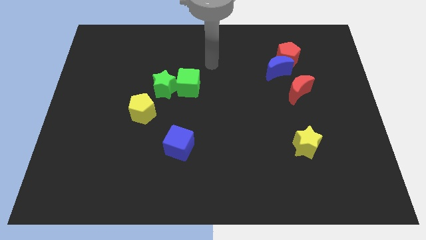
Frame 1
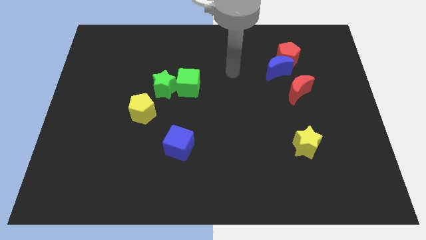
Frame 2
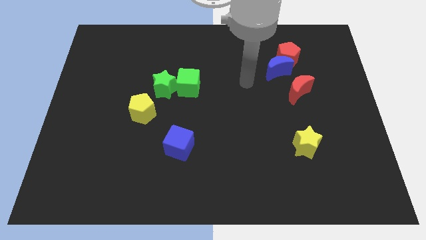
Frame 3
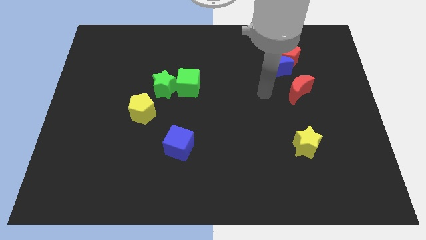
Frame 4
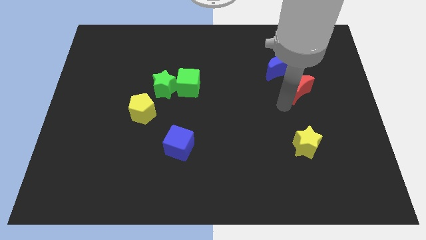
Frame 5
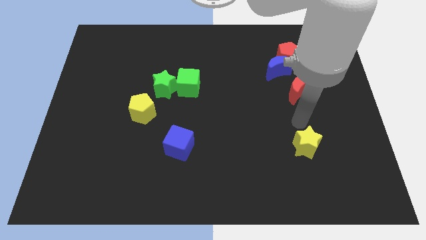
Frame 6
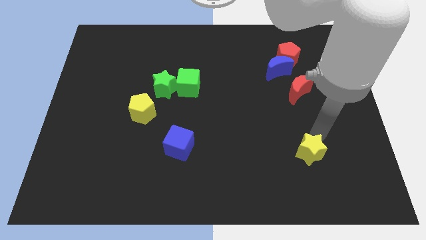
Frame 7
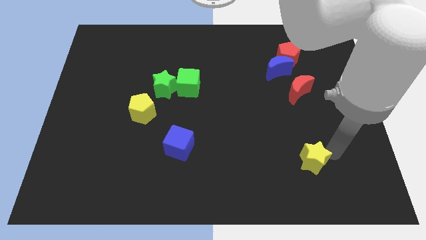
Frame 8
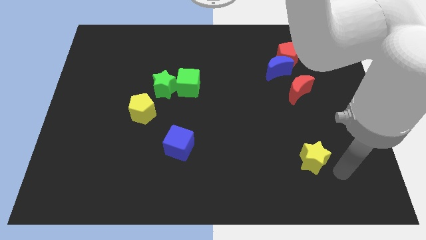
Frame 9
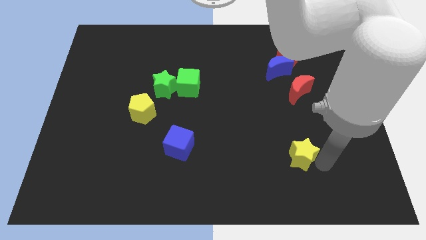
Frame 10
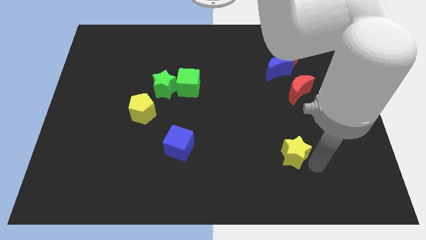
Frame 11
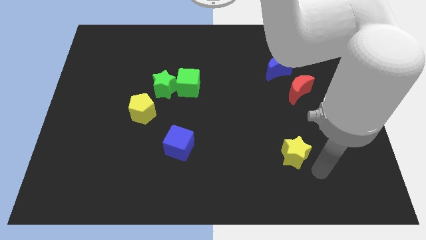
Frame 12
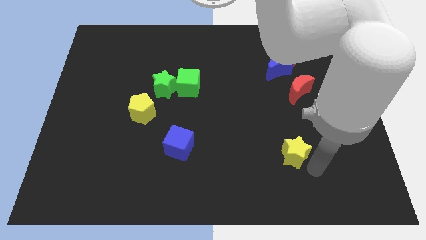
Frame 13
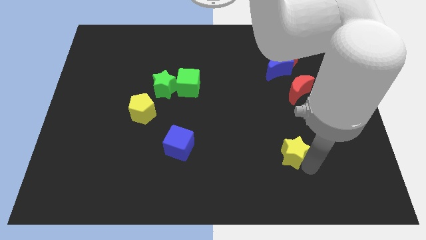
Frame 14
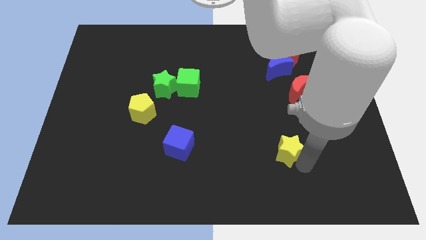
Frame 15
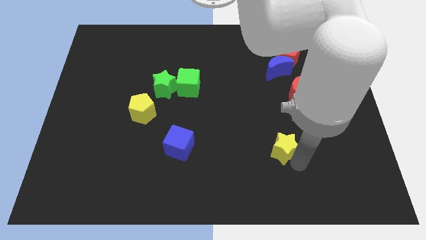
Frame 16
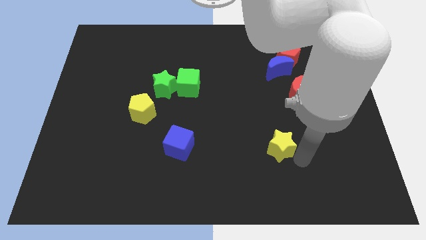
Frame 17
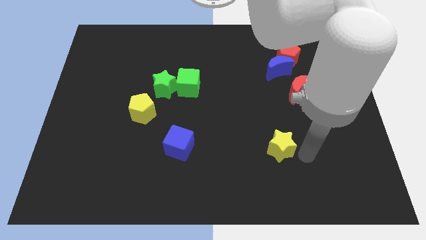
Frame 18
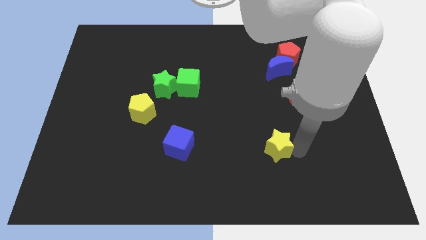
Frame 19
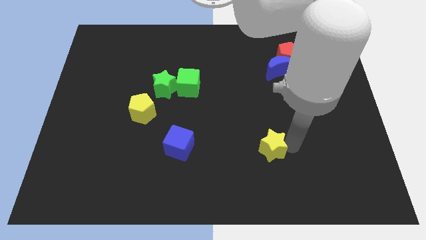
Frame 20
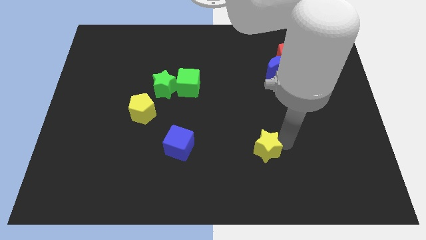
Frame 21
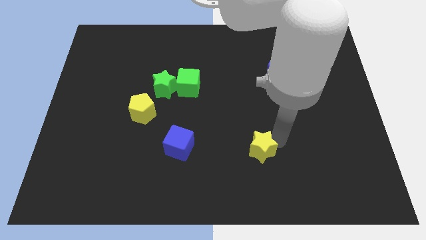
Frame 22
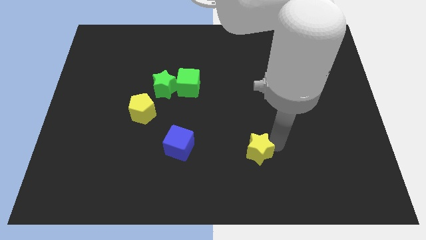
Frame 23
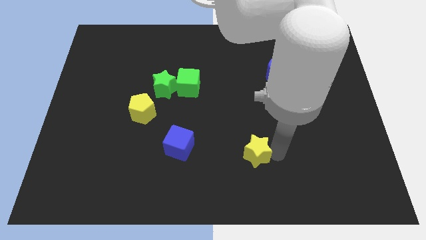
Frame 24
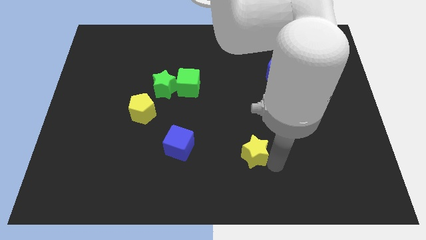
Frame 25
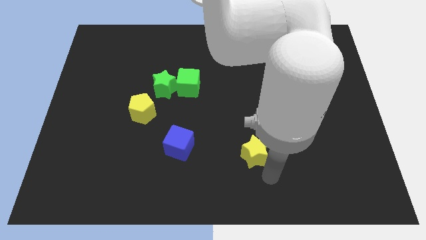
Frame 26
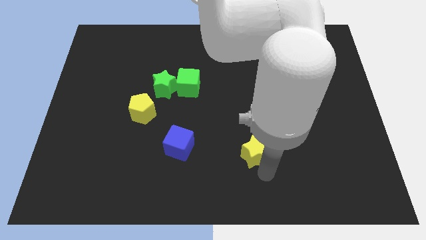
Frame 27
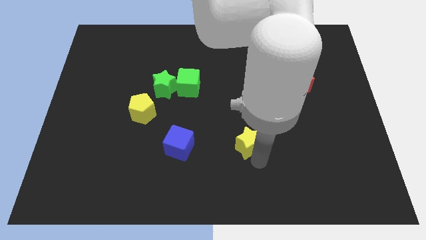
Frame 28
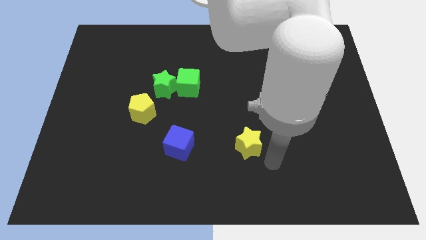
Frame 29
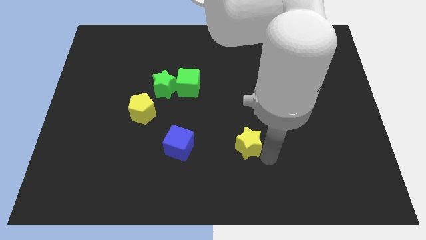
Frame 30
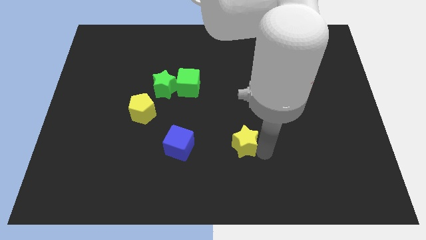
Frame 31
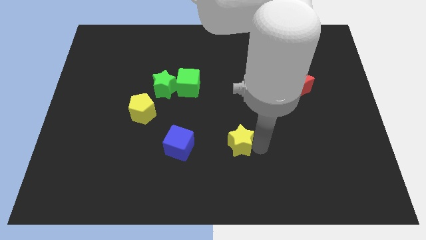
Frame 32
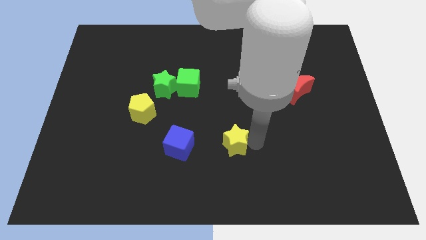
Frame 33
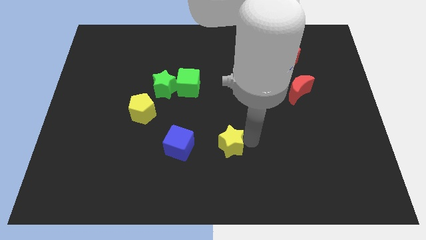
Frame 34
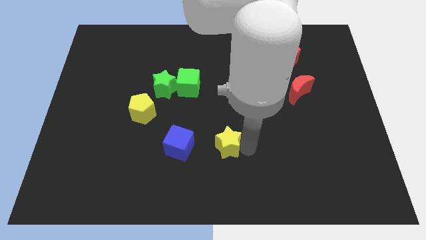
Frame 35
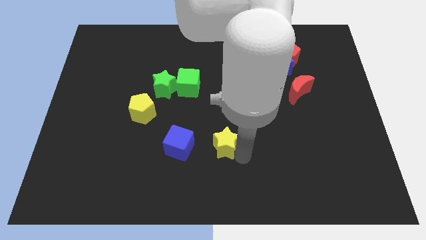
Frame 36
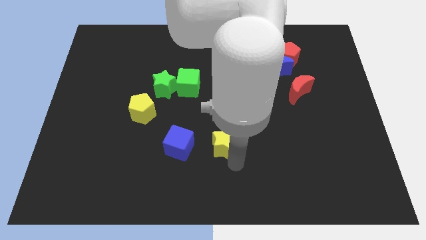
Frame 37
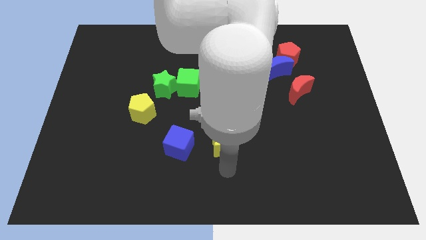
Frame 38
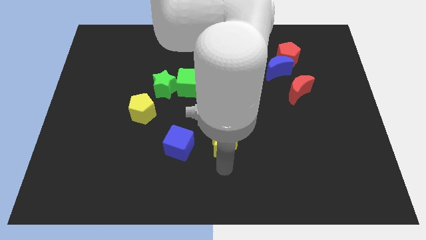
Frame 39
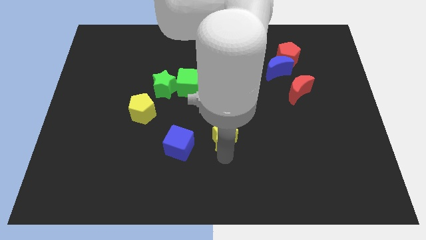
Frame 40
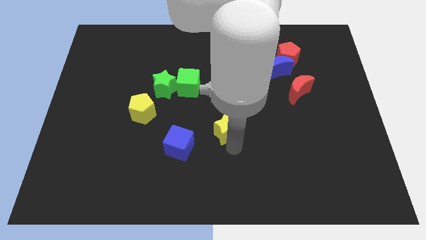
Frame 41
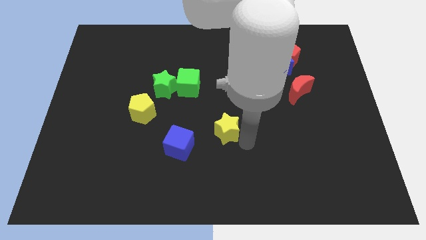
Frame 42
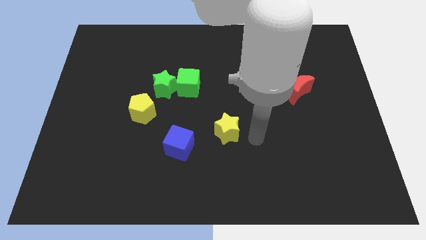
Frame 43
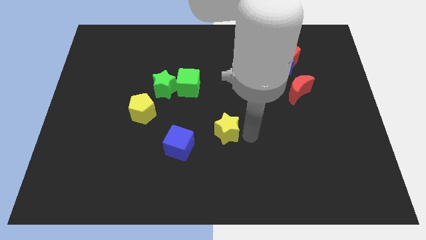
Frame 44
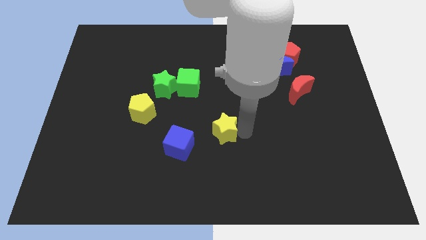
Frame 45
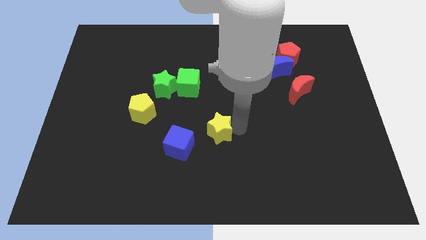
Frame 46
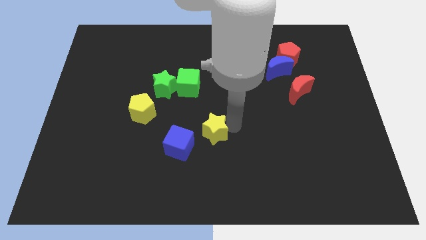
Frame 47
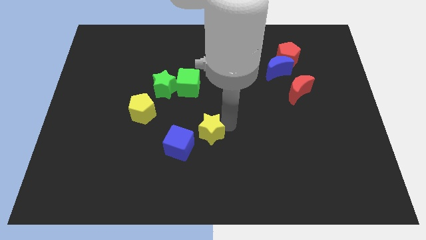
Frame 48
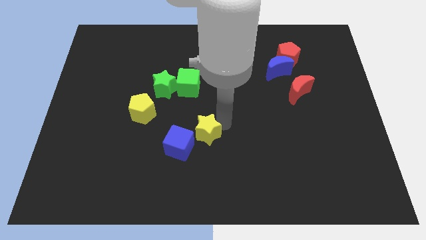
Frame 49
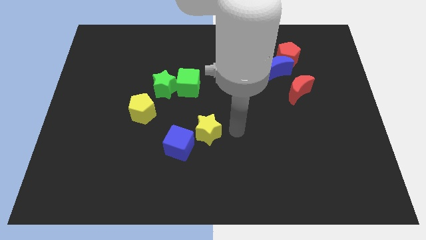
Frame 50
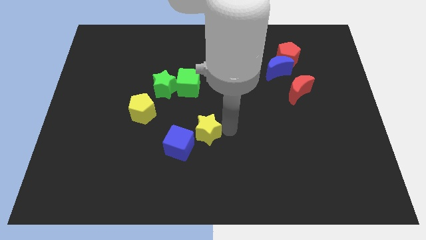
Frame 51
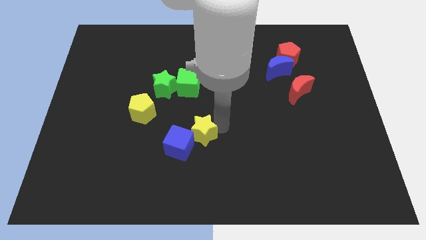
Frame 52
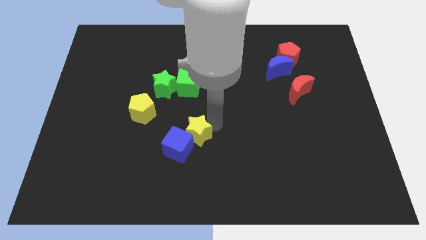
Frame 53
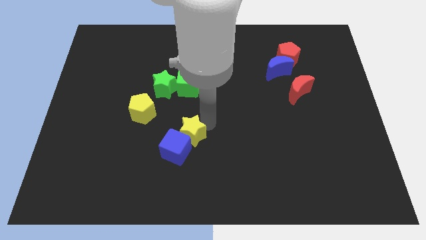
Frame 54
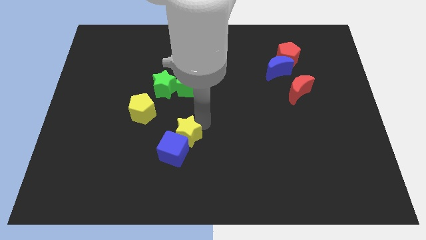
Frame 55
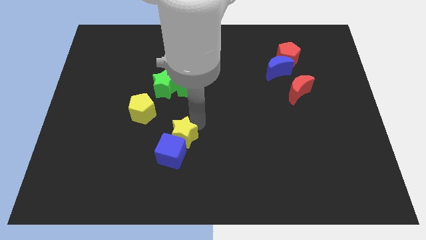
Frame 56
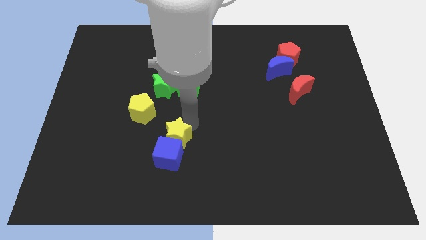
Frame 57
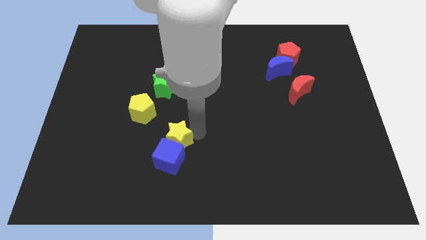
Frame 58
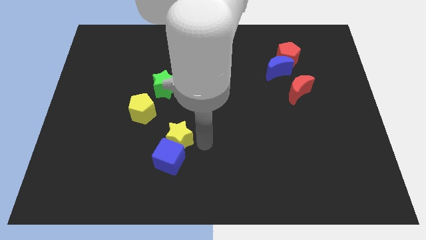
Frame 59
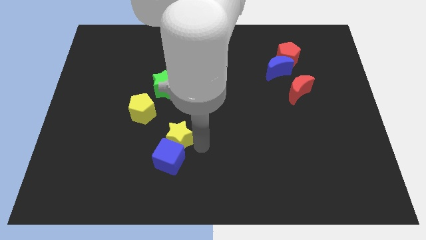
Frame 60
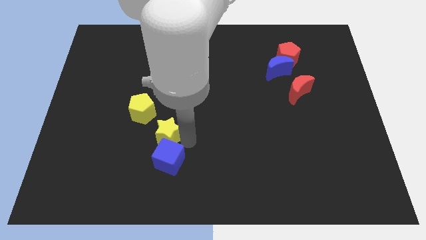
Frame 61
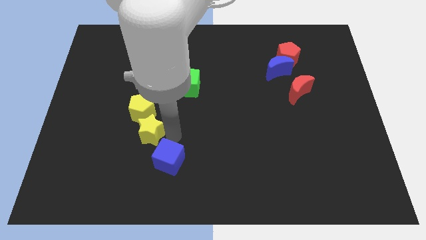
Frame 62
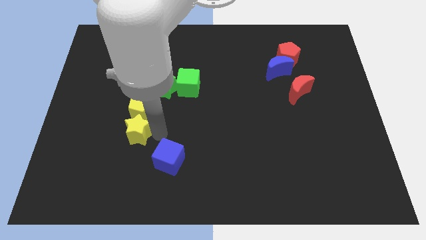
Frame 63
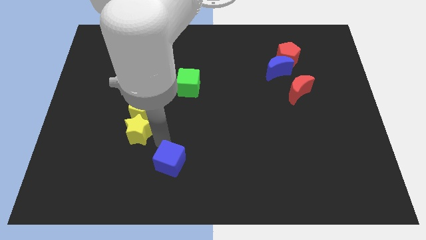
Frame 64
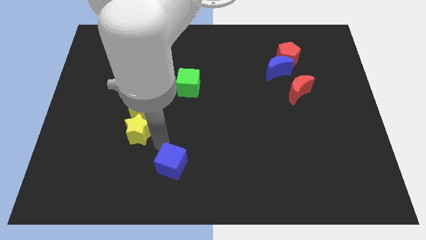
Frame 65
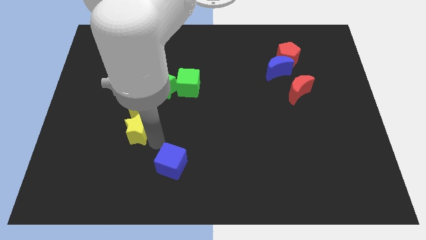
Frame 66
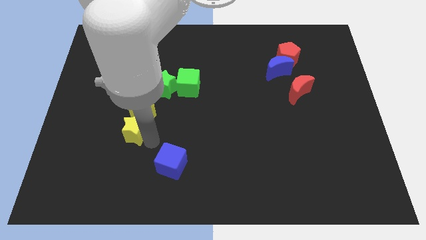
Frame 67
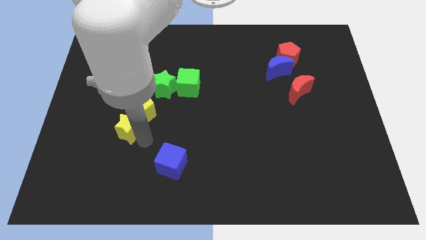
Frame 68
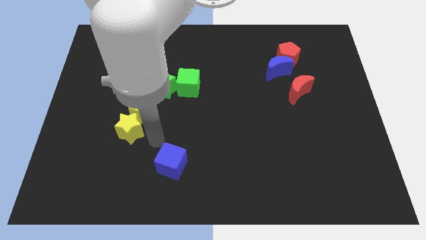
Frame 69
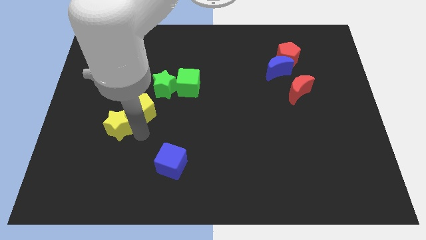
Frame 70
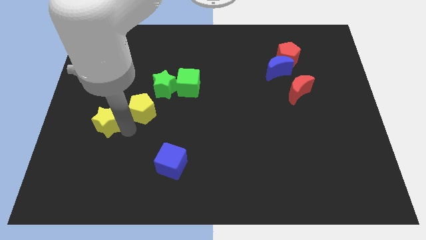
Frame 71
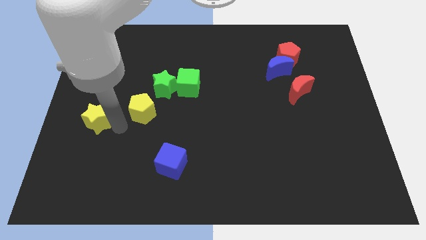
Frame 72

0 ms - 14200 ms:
put the yellow star to the center left
